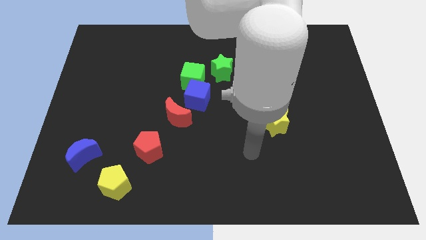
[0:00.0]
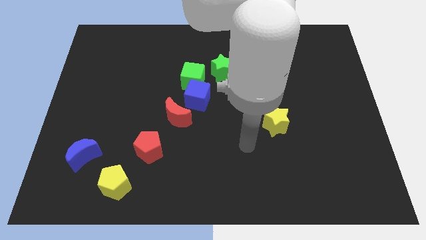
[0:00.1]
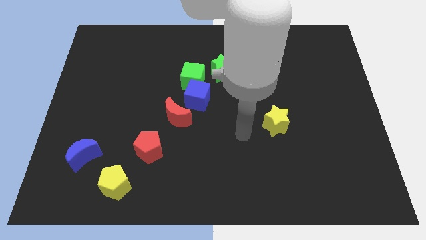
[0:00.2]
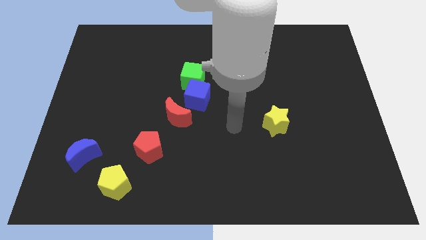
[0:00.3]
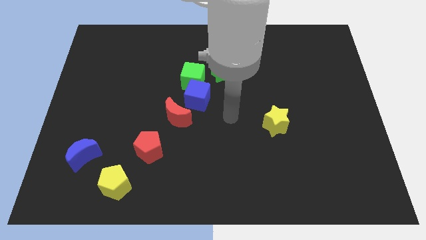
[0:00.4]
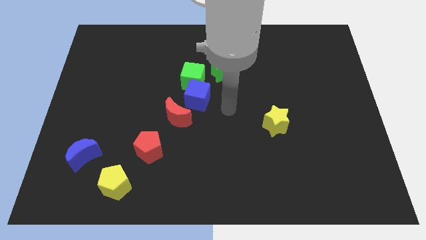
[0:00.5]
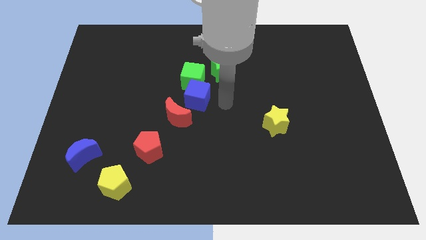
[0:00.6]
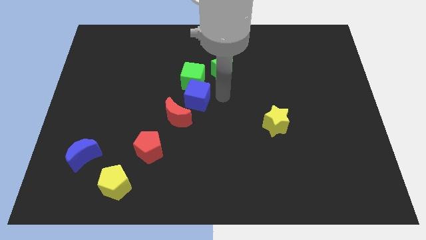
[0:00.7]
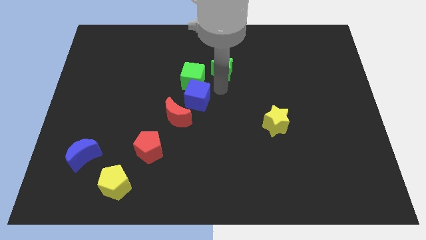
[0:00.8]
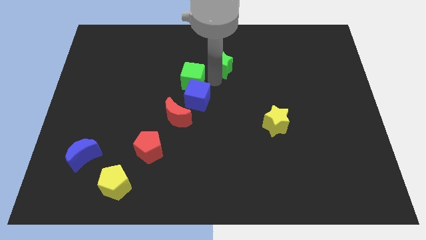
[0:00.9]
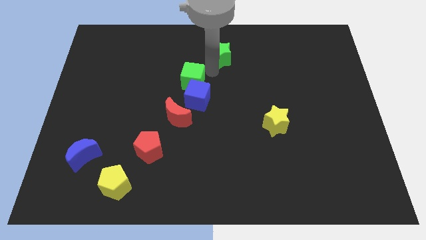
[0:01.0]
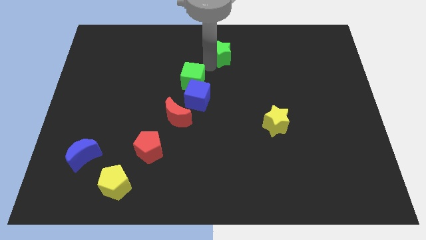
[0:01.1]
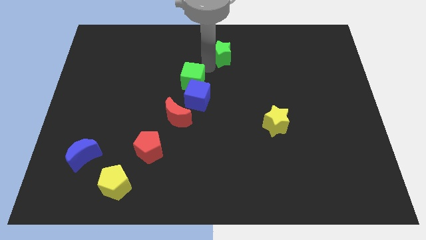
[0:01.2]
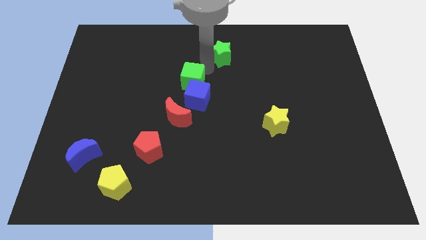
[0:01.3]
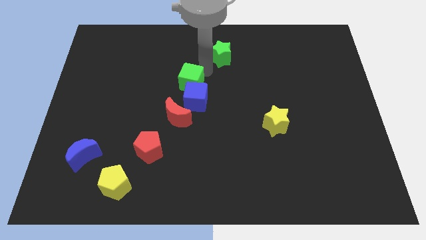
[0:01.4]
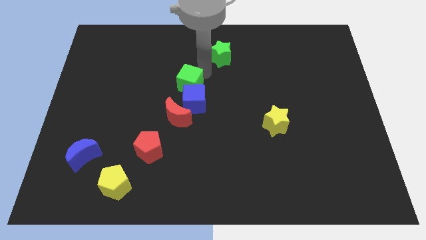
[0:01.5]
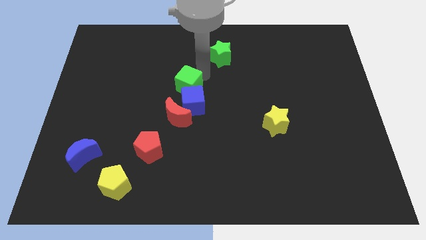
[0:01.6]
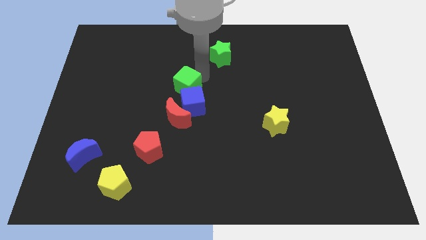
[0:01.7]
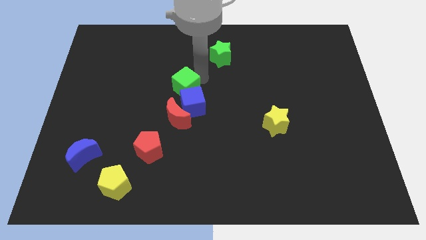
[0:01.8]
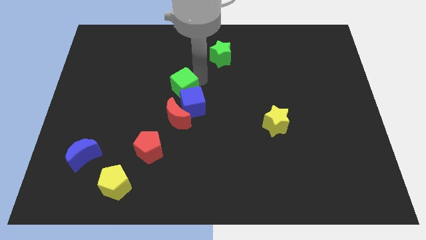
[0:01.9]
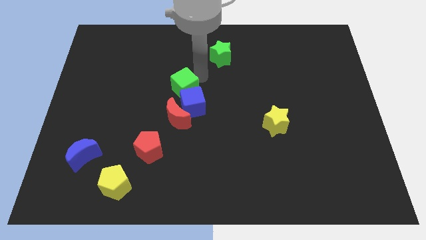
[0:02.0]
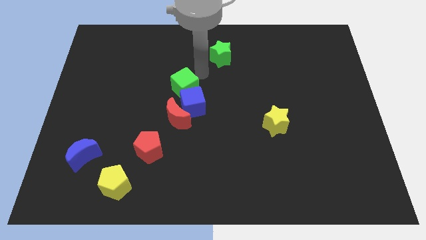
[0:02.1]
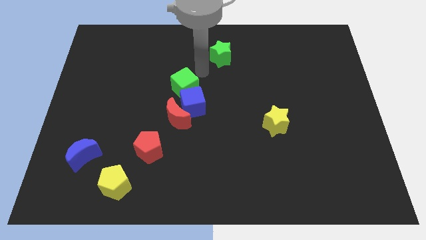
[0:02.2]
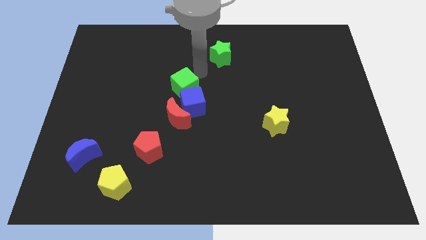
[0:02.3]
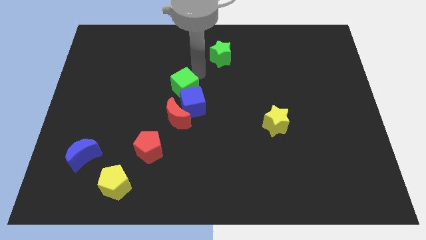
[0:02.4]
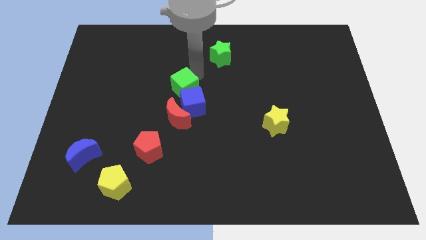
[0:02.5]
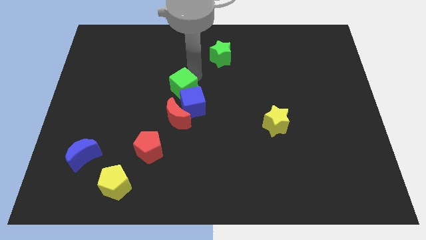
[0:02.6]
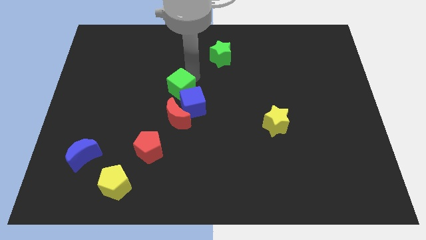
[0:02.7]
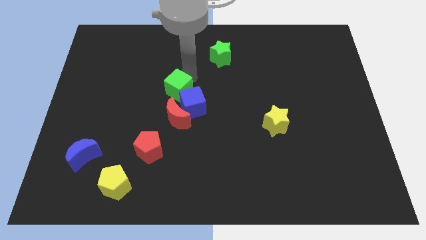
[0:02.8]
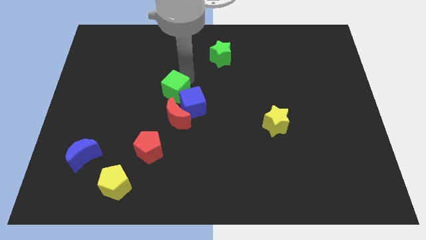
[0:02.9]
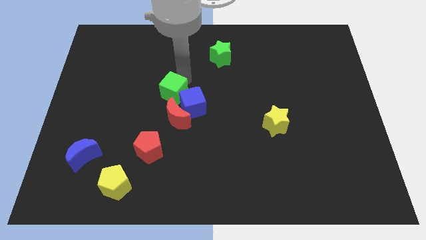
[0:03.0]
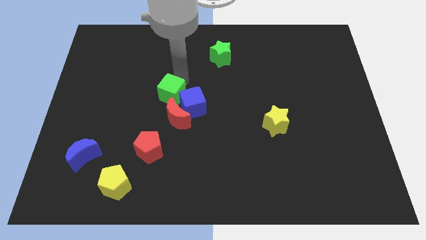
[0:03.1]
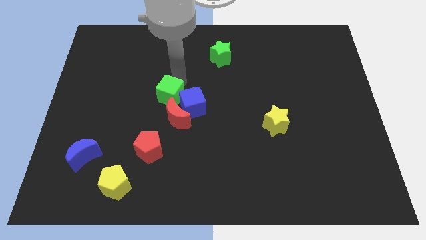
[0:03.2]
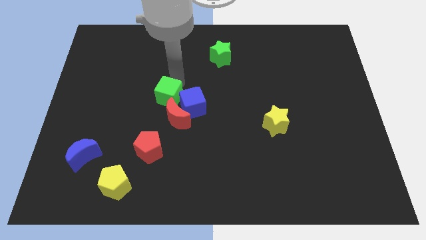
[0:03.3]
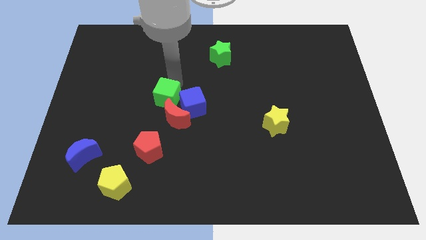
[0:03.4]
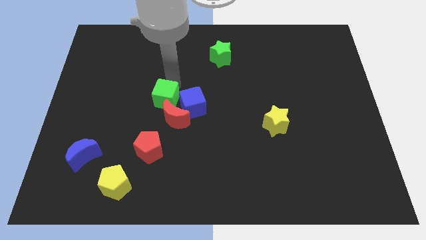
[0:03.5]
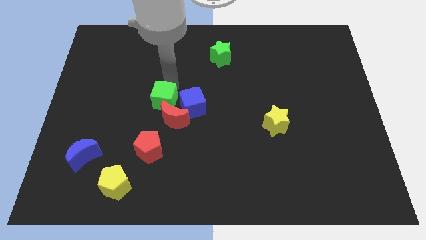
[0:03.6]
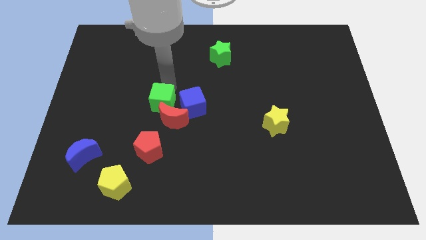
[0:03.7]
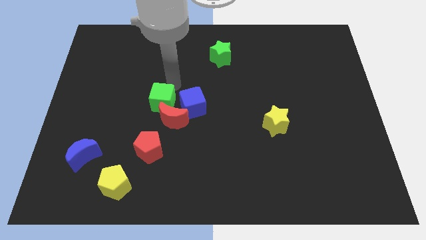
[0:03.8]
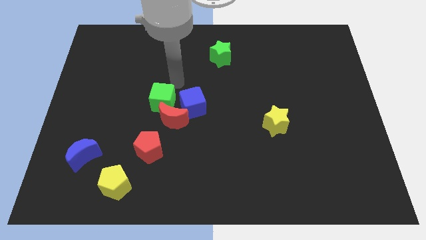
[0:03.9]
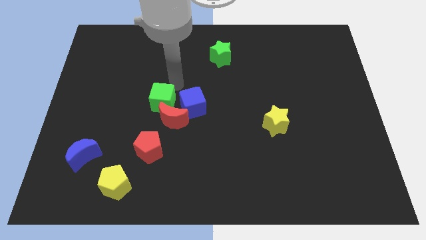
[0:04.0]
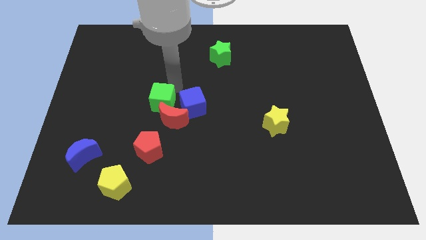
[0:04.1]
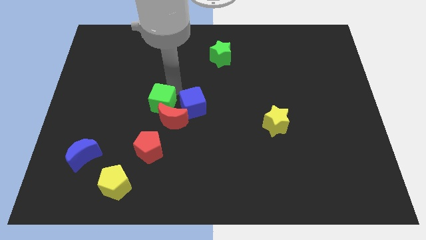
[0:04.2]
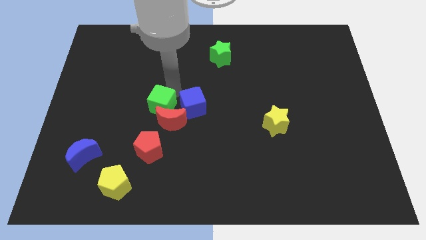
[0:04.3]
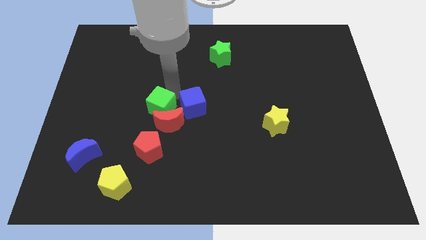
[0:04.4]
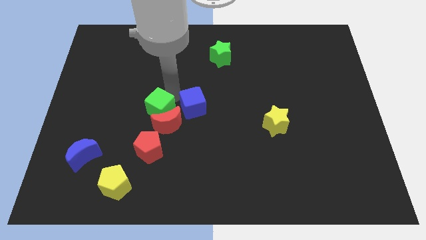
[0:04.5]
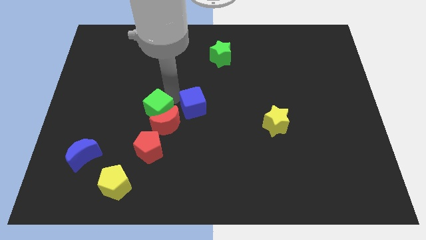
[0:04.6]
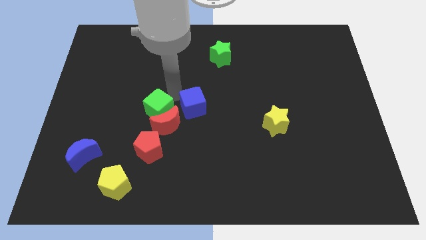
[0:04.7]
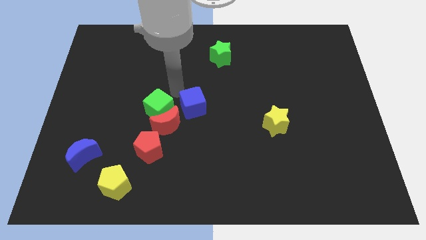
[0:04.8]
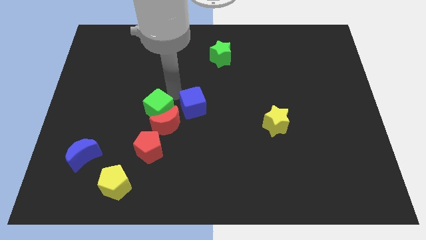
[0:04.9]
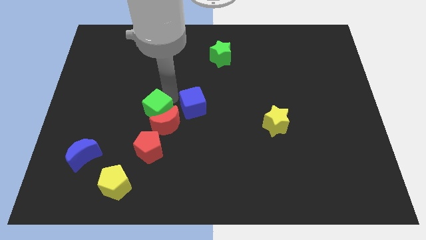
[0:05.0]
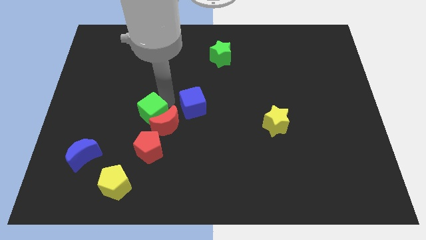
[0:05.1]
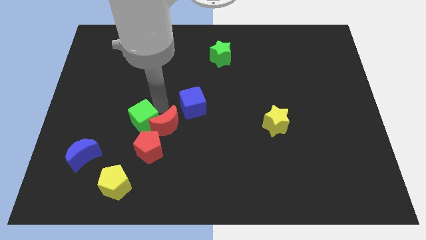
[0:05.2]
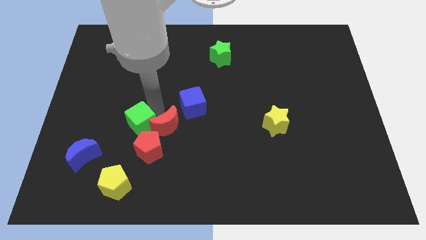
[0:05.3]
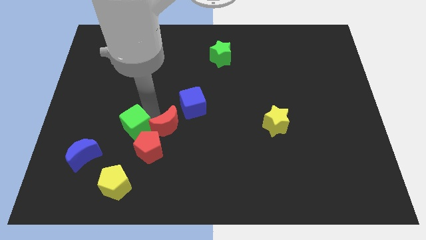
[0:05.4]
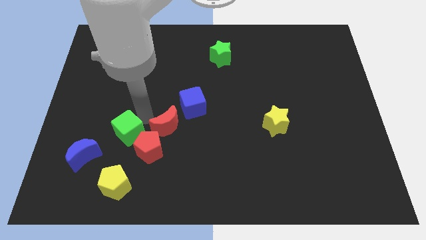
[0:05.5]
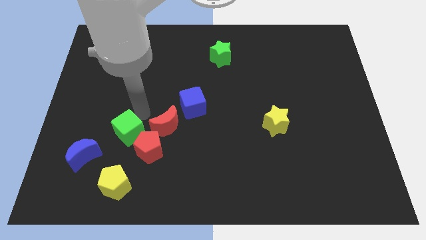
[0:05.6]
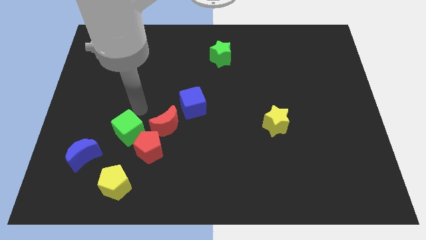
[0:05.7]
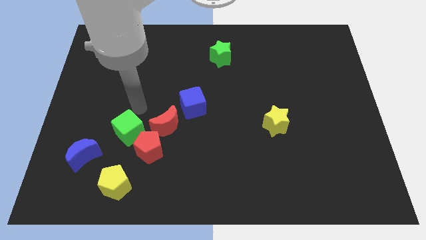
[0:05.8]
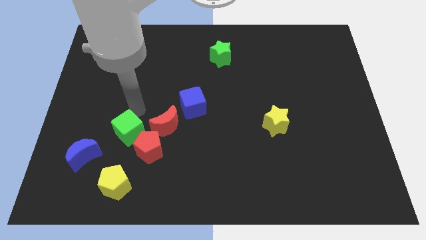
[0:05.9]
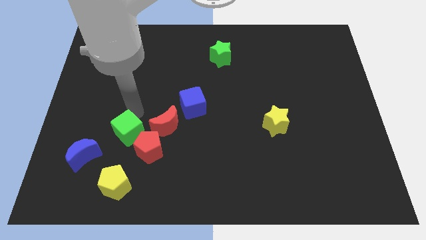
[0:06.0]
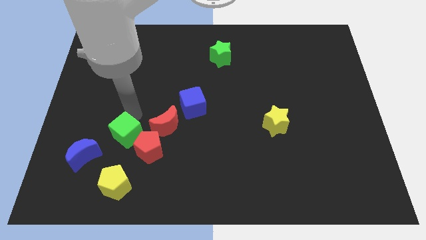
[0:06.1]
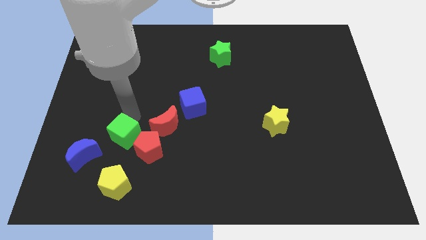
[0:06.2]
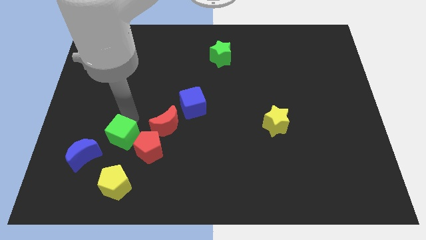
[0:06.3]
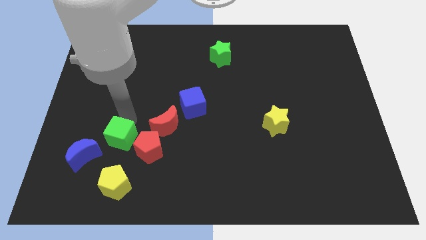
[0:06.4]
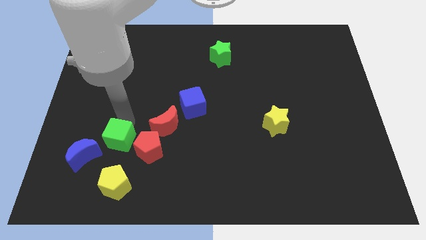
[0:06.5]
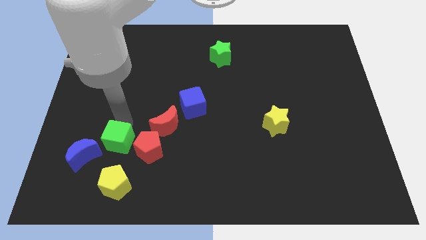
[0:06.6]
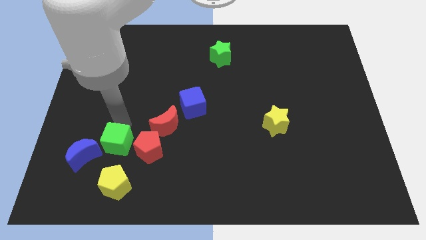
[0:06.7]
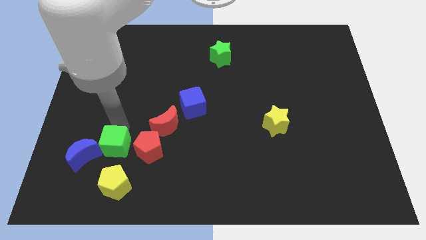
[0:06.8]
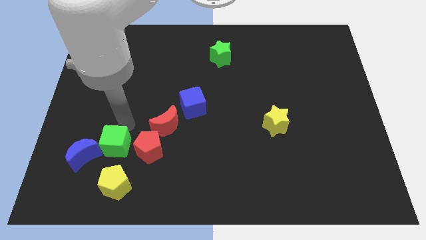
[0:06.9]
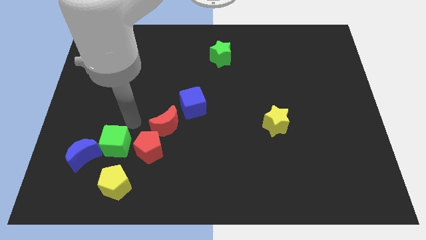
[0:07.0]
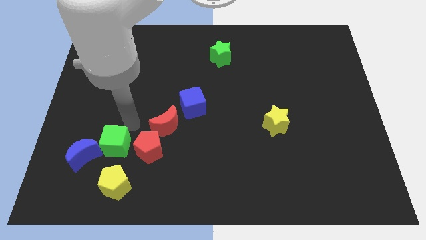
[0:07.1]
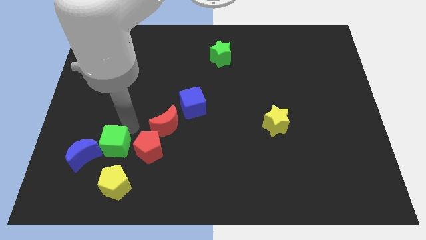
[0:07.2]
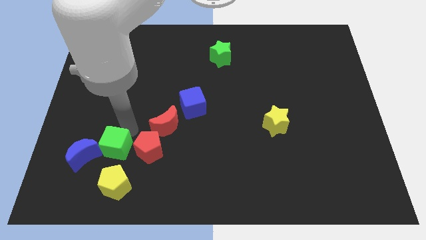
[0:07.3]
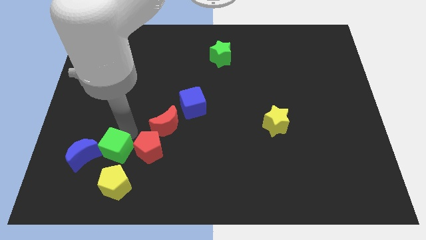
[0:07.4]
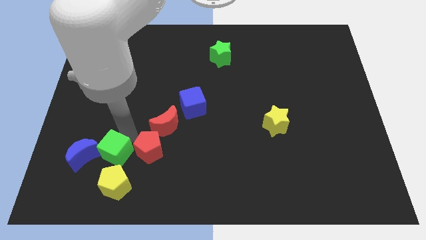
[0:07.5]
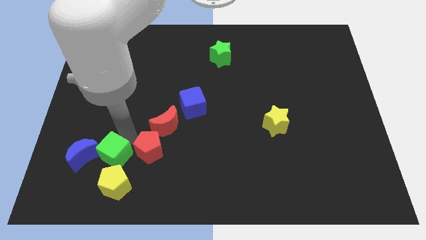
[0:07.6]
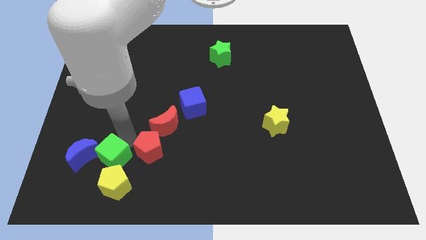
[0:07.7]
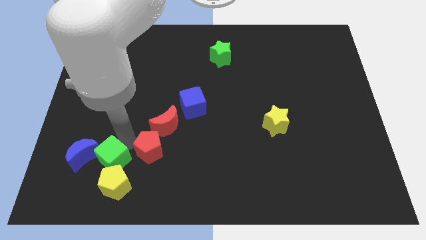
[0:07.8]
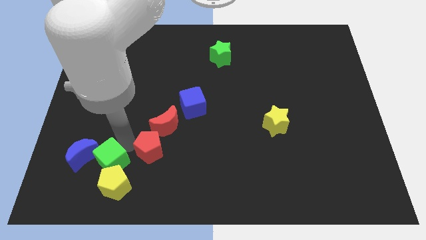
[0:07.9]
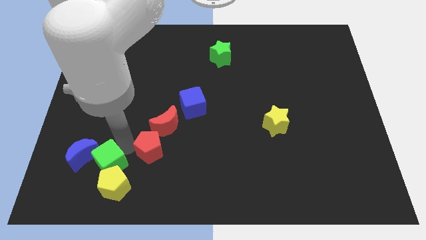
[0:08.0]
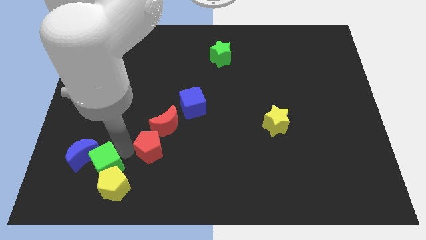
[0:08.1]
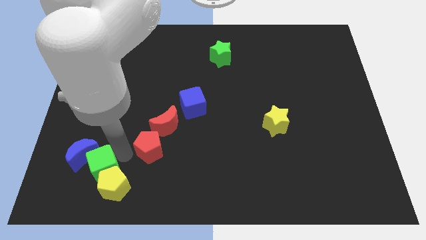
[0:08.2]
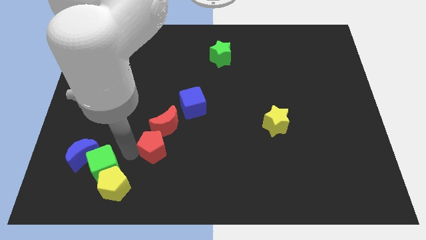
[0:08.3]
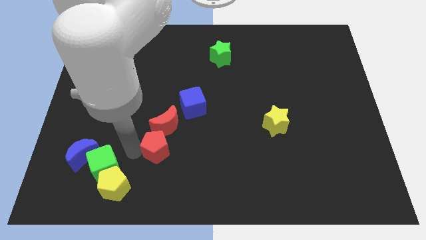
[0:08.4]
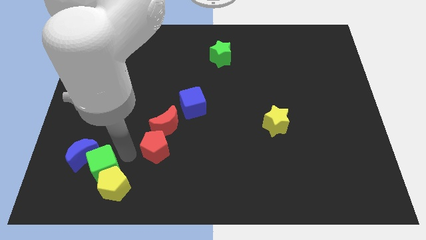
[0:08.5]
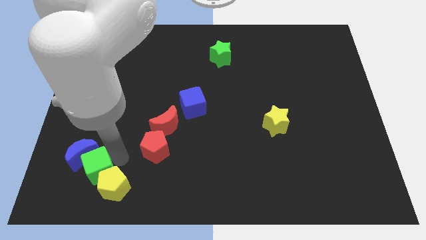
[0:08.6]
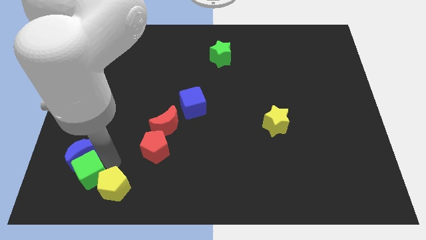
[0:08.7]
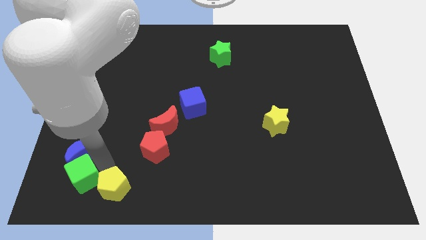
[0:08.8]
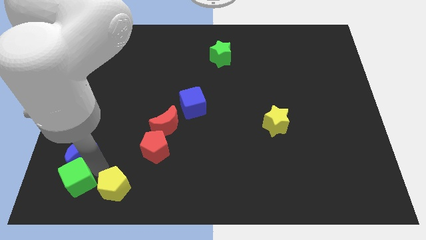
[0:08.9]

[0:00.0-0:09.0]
push the green cube to the bottom left corner
